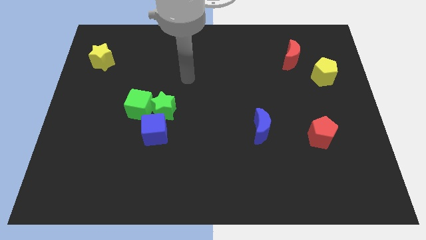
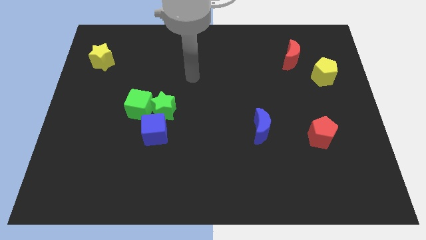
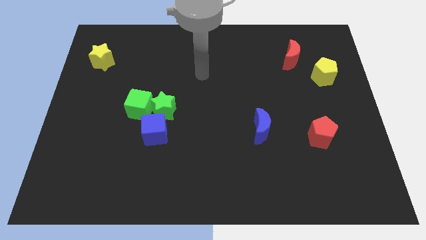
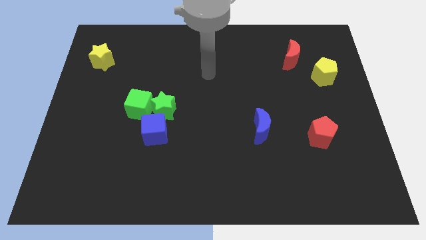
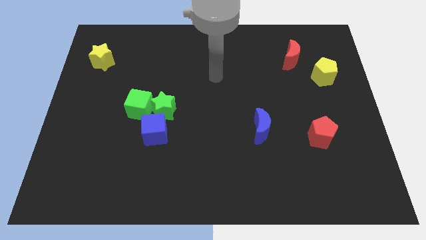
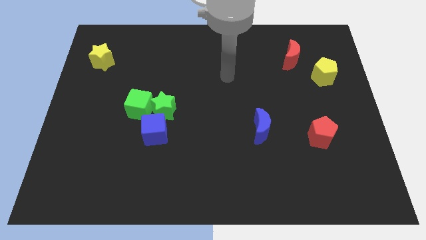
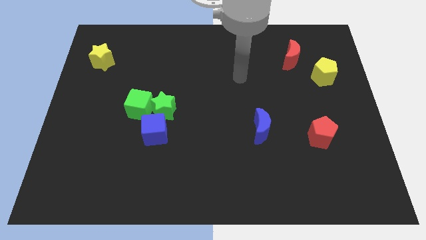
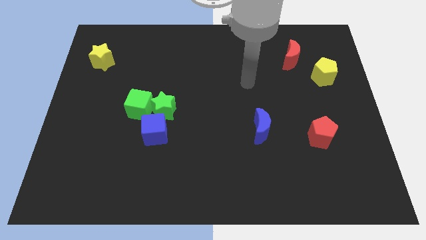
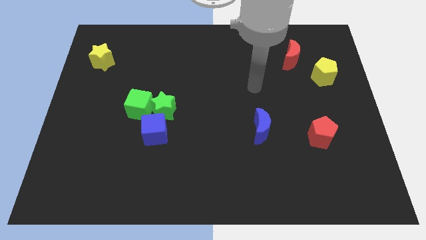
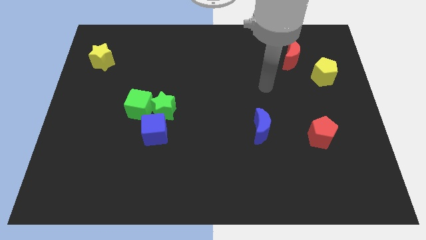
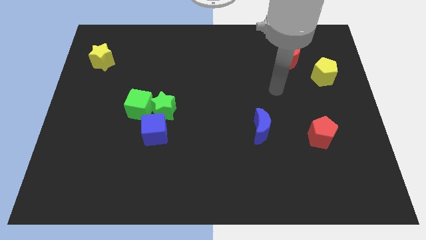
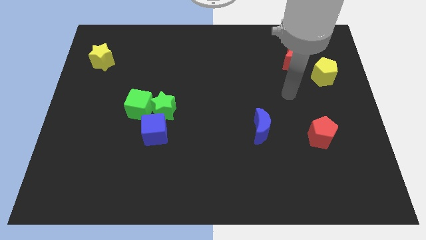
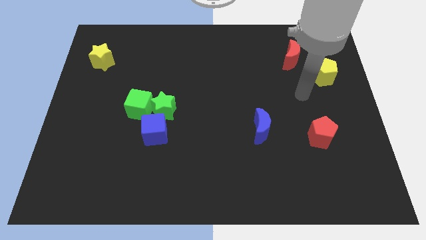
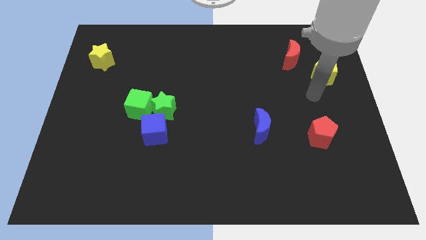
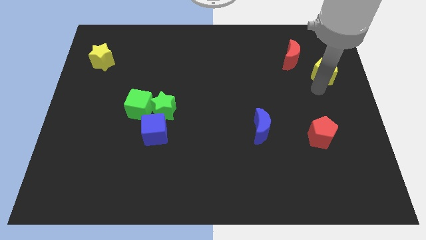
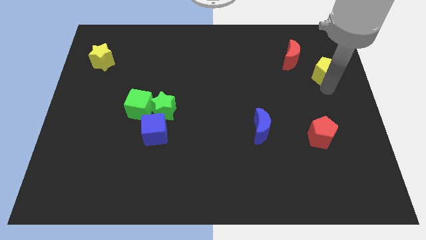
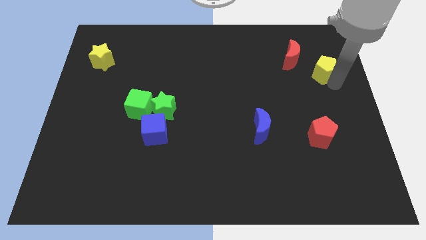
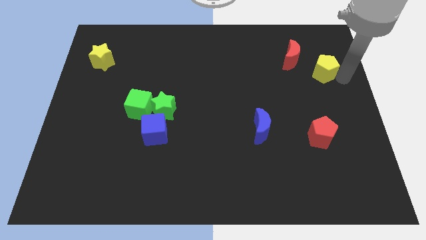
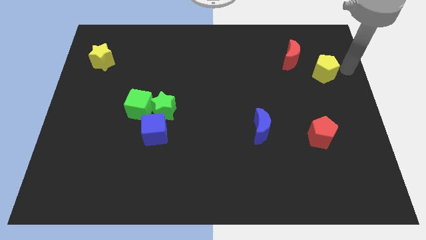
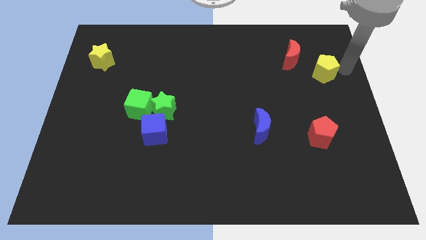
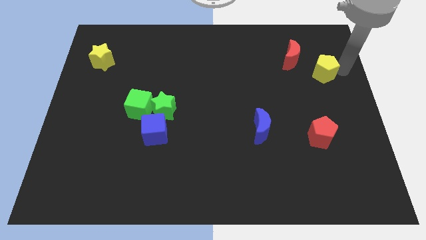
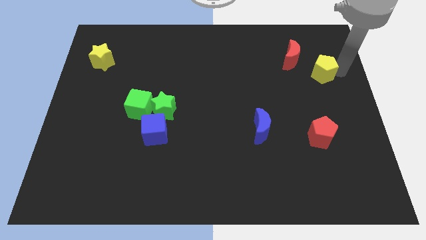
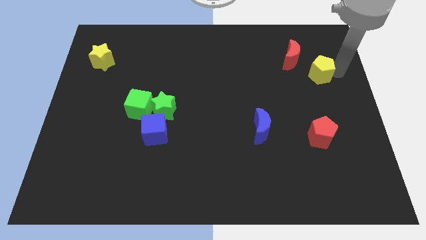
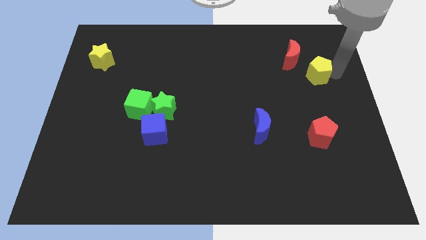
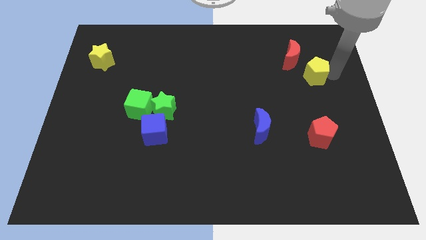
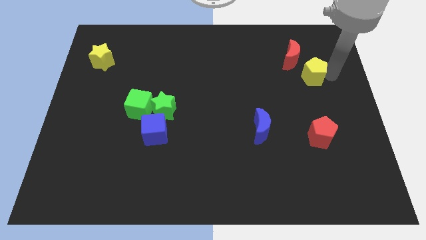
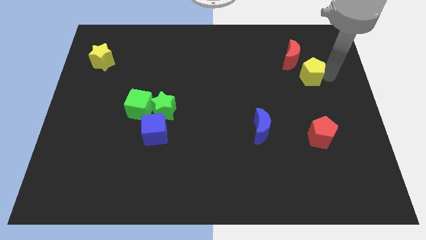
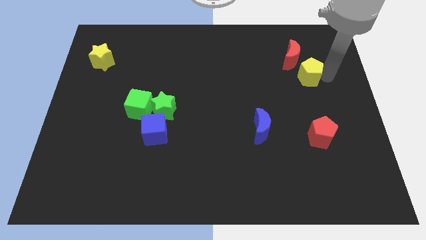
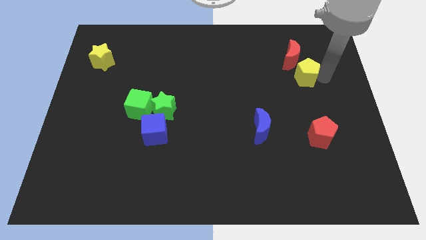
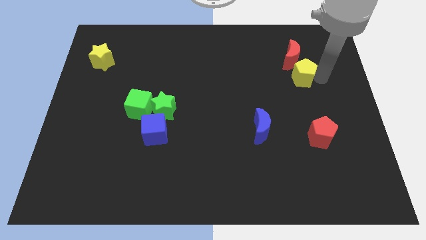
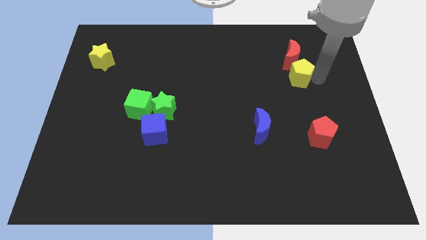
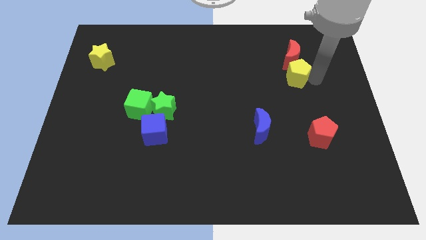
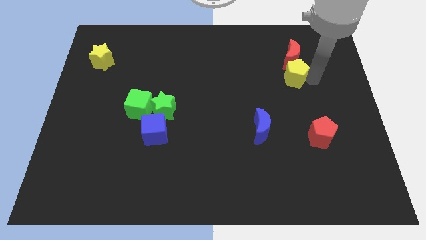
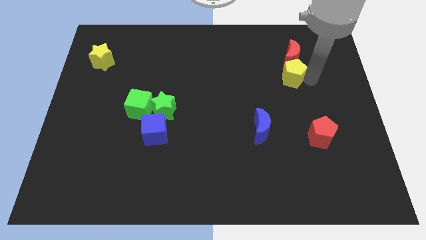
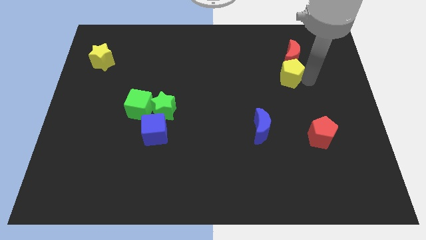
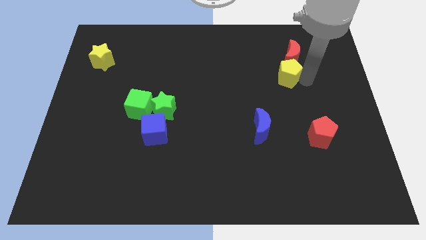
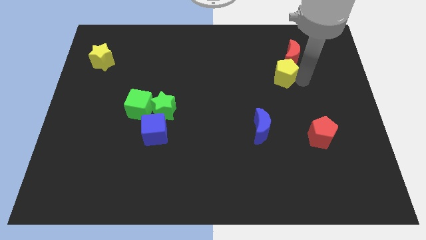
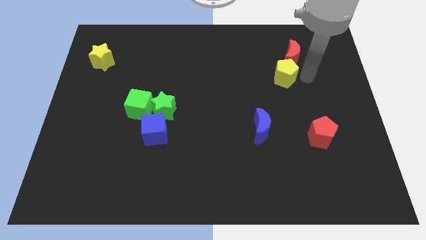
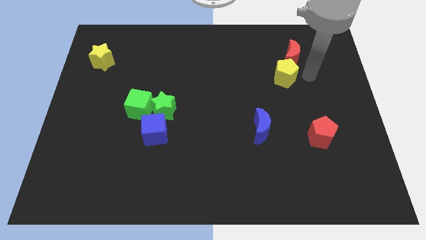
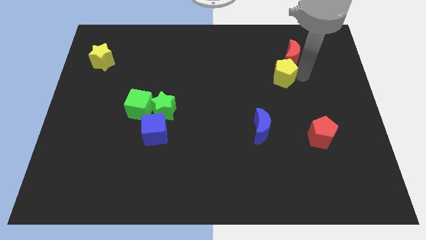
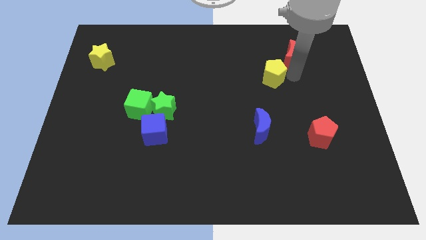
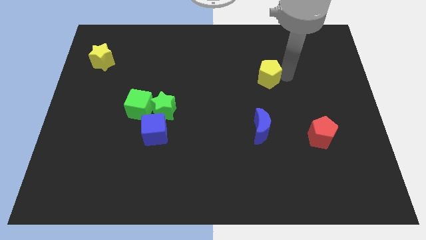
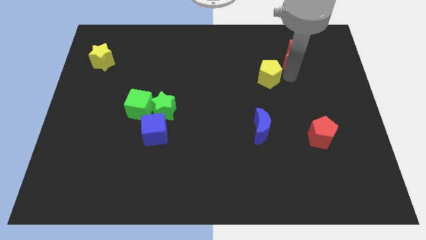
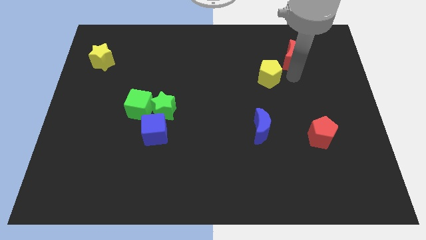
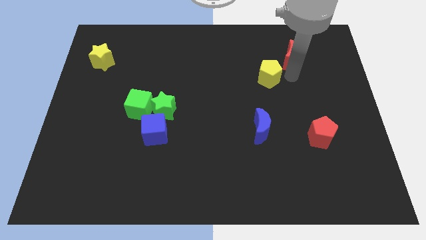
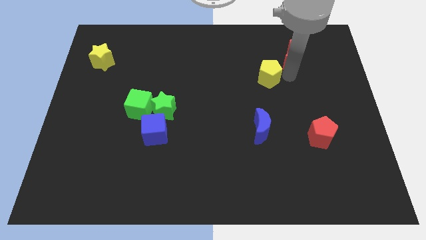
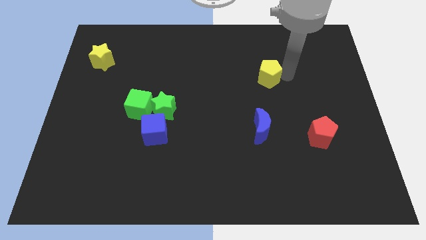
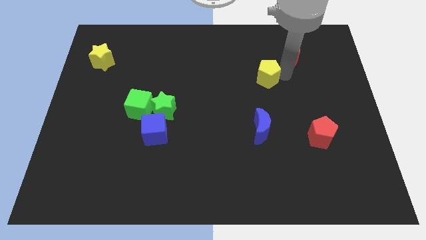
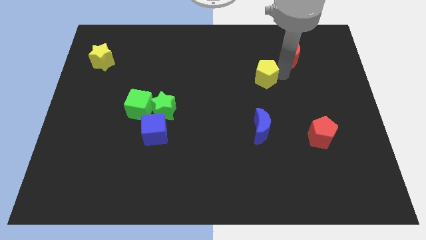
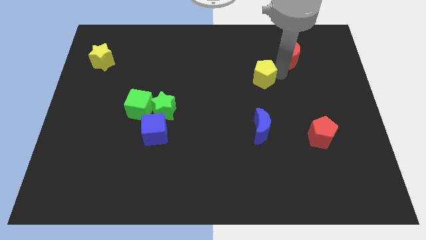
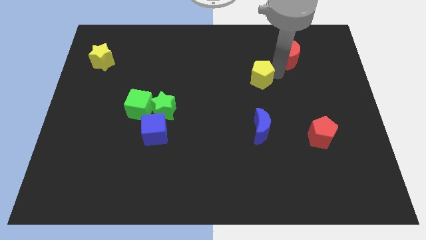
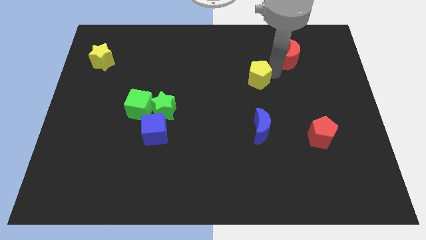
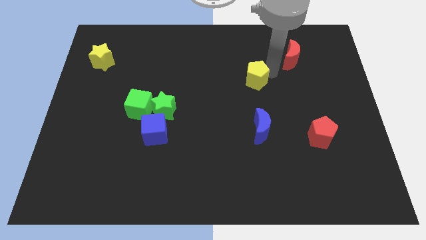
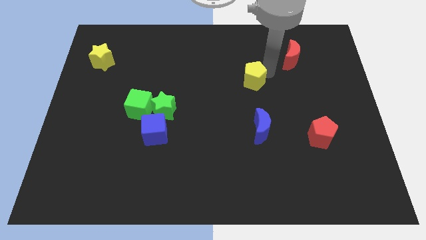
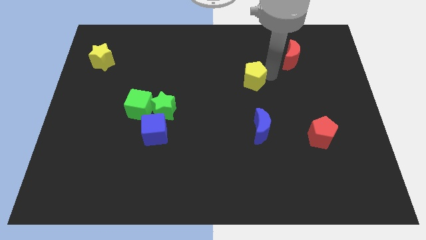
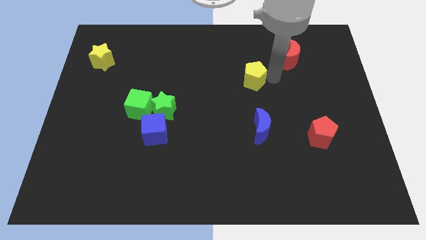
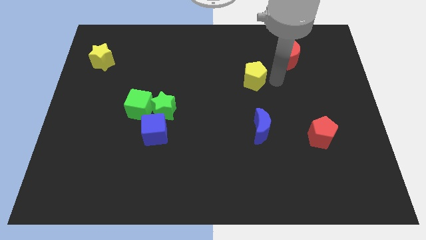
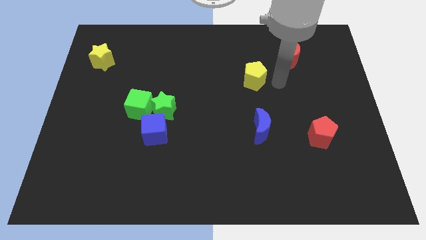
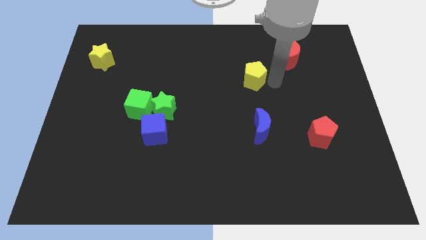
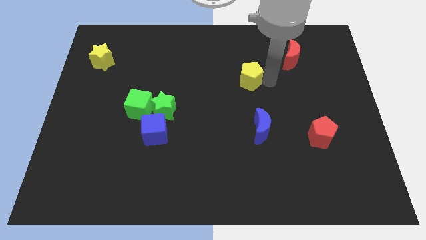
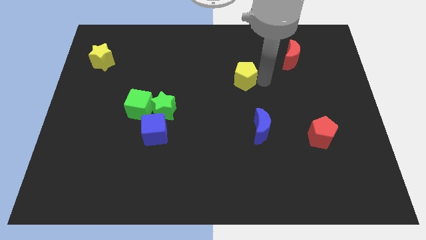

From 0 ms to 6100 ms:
slide the yellow pentagon left

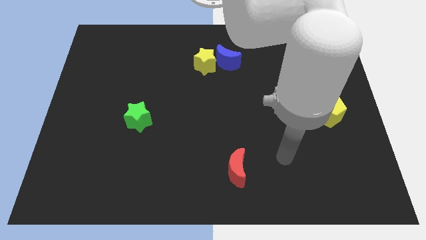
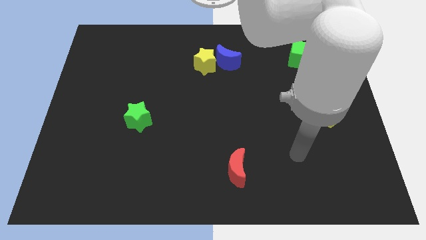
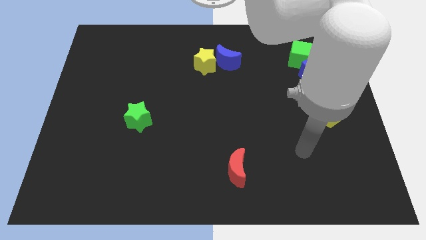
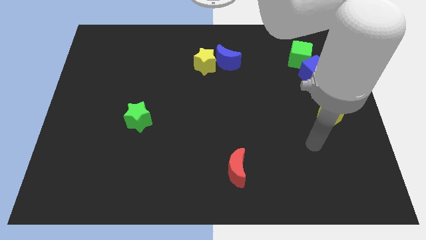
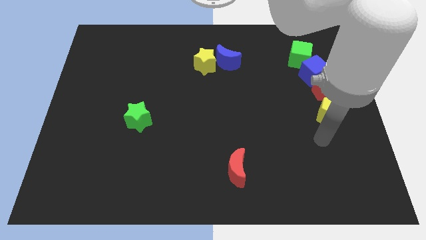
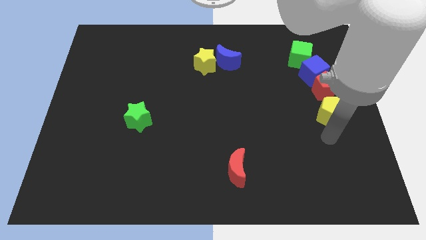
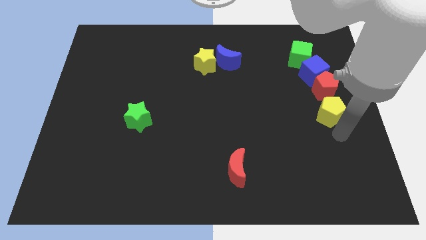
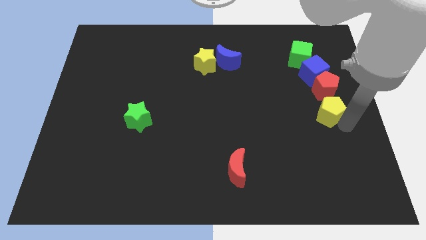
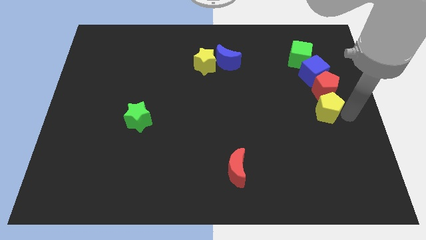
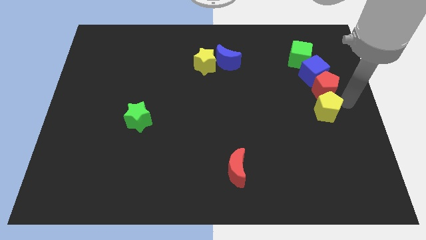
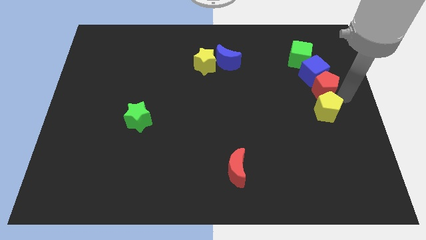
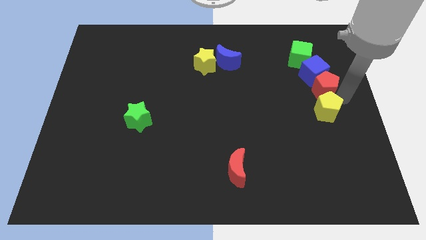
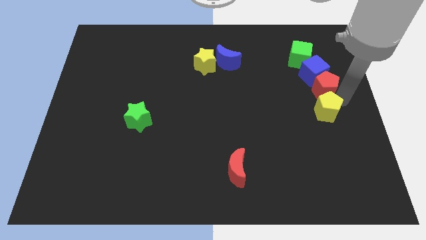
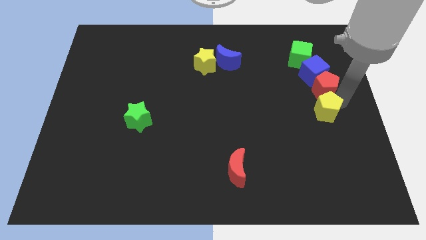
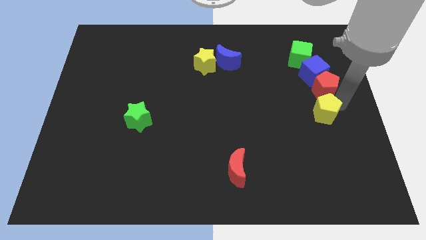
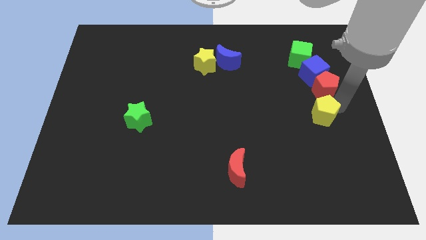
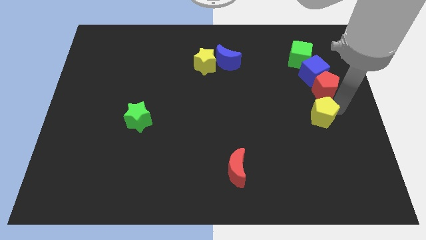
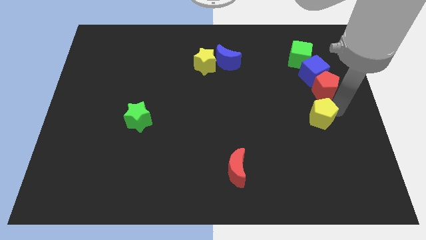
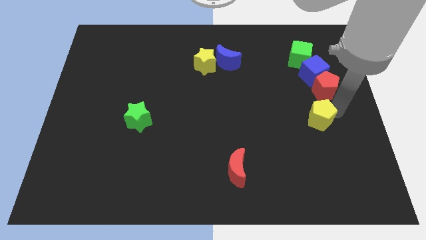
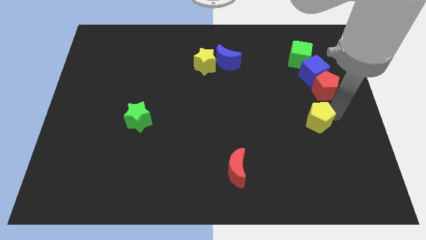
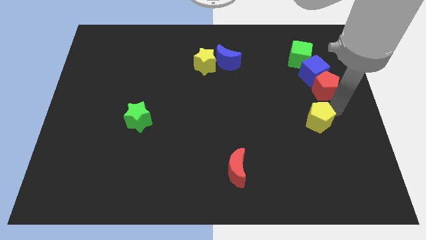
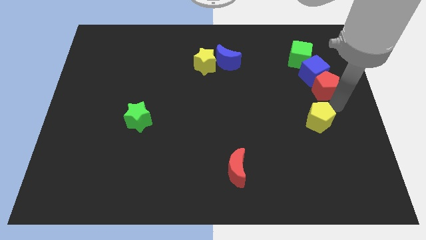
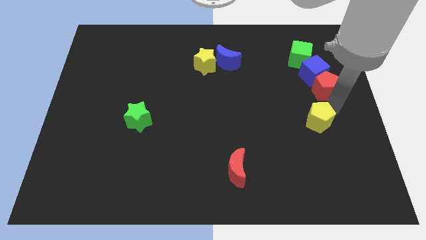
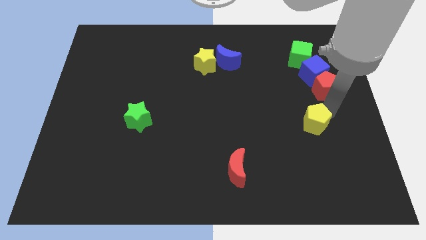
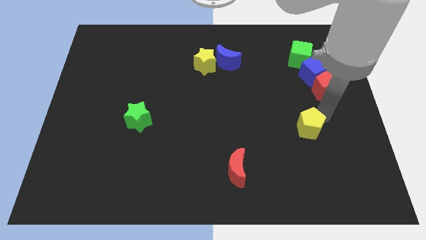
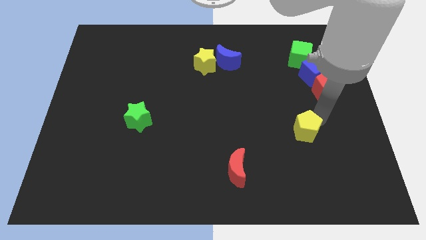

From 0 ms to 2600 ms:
push the yellow pentagon slightly downwards and to the left diagonally
